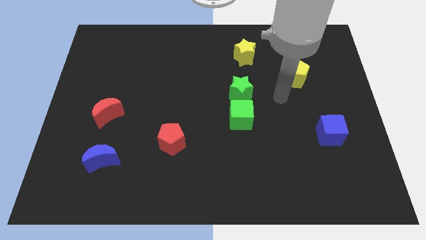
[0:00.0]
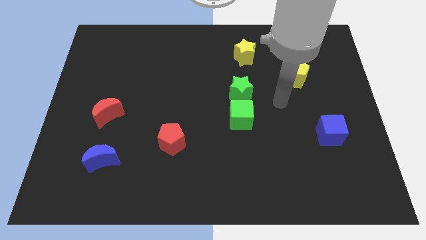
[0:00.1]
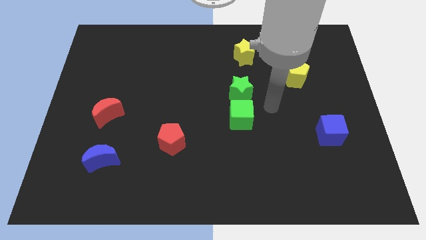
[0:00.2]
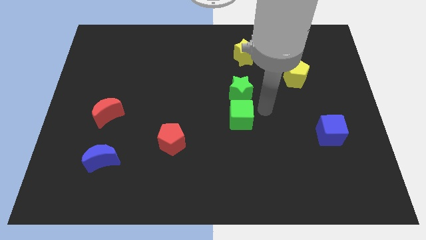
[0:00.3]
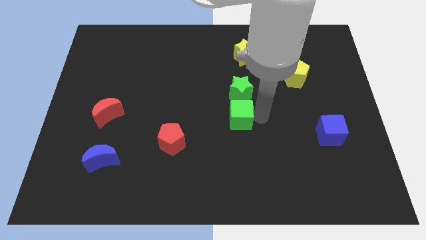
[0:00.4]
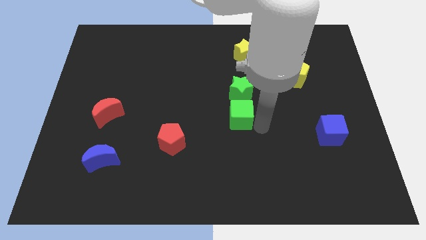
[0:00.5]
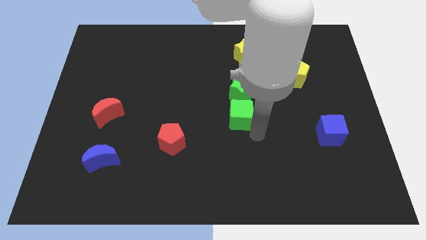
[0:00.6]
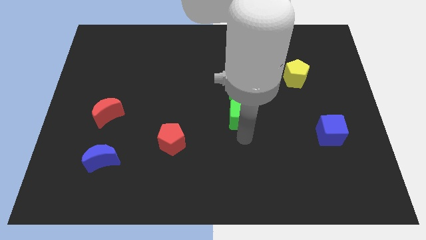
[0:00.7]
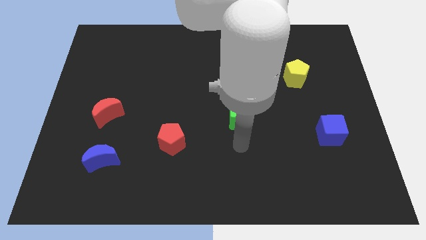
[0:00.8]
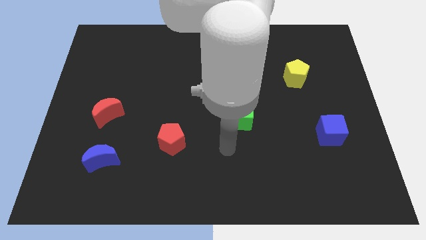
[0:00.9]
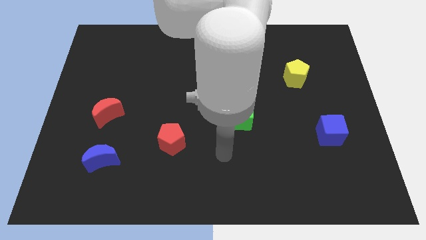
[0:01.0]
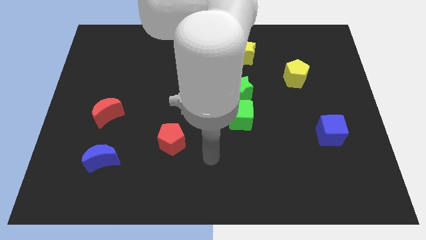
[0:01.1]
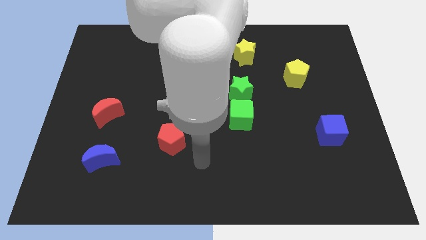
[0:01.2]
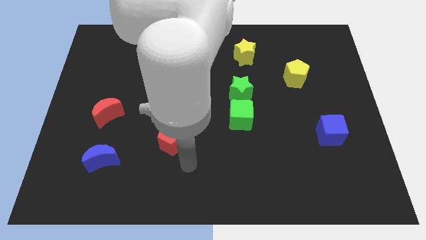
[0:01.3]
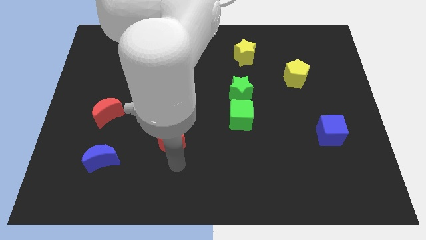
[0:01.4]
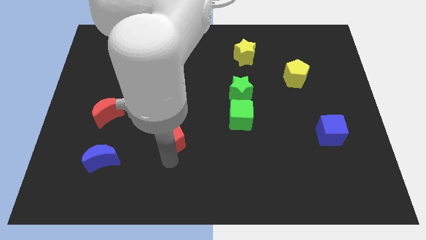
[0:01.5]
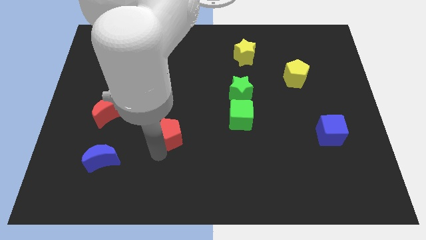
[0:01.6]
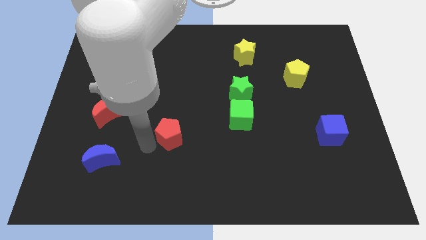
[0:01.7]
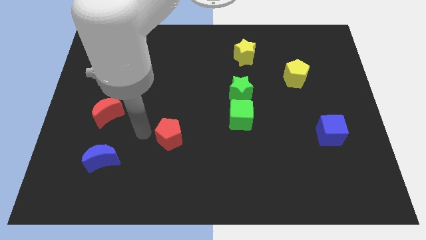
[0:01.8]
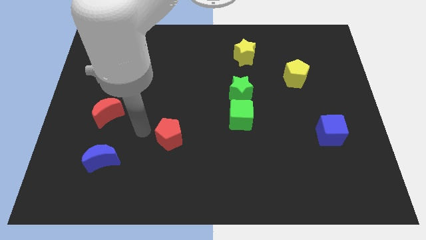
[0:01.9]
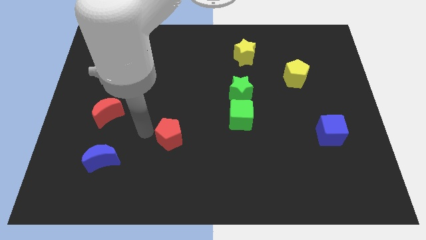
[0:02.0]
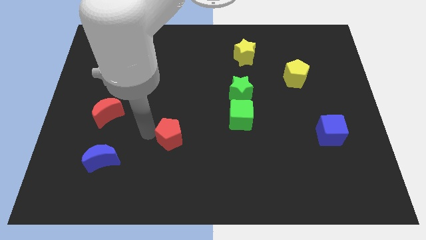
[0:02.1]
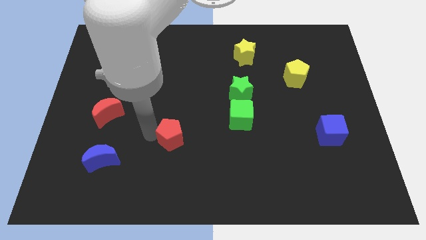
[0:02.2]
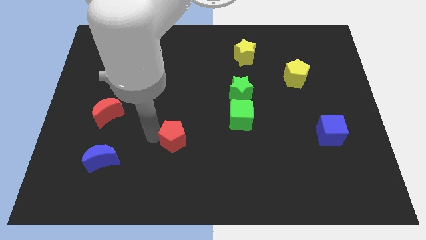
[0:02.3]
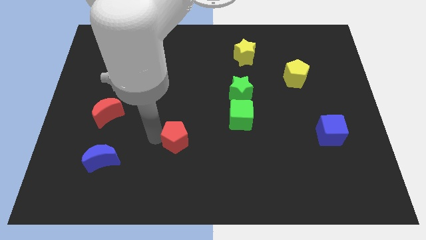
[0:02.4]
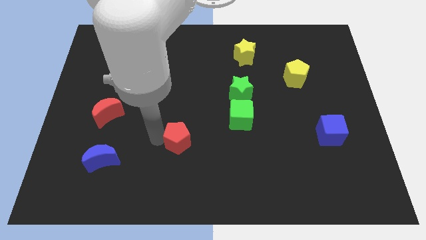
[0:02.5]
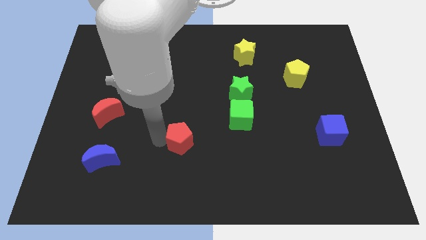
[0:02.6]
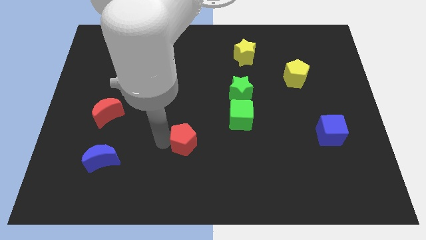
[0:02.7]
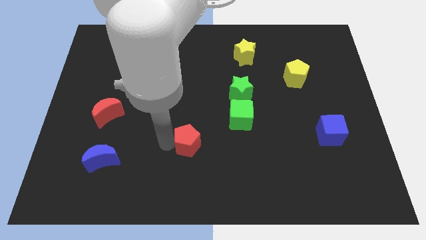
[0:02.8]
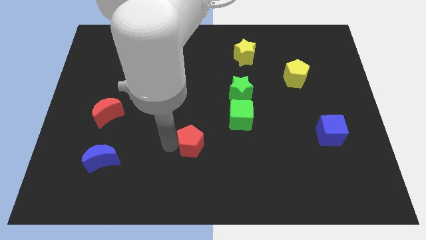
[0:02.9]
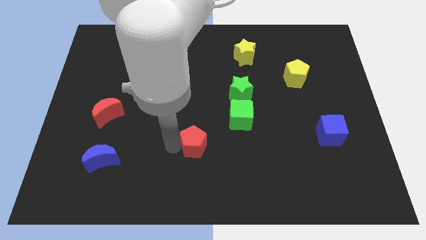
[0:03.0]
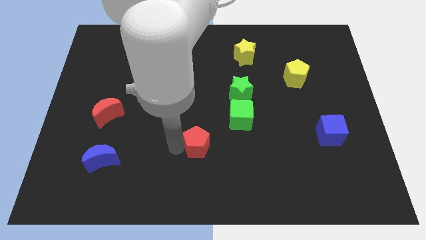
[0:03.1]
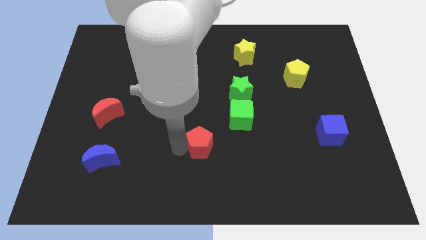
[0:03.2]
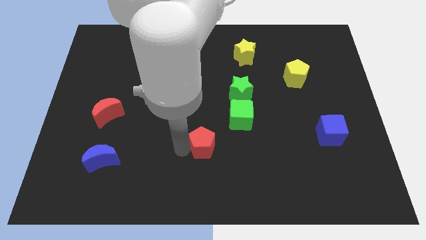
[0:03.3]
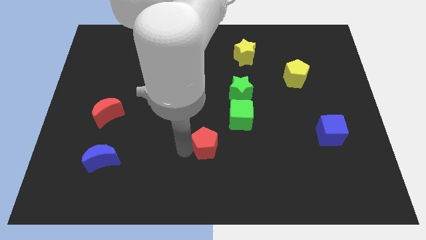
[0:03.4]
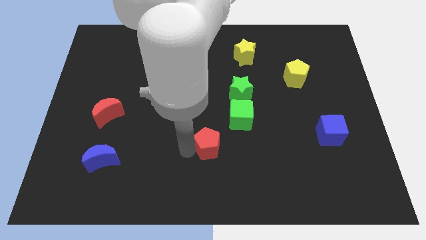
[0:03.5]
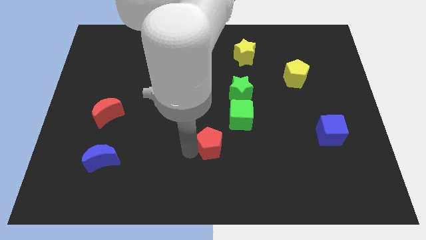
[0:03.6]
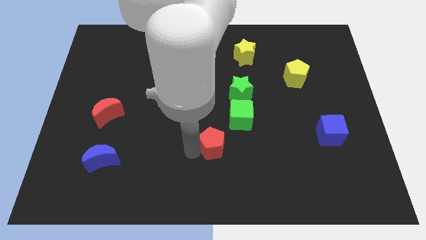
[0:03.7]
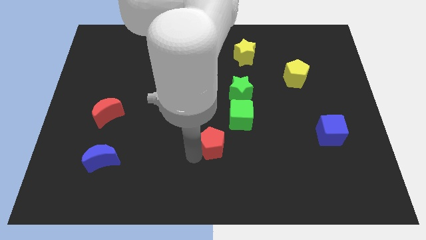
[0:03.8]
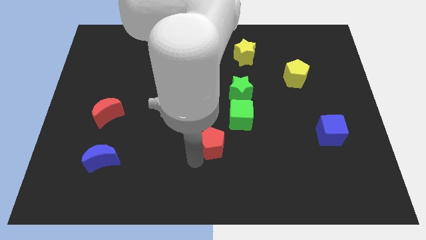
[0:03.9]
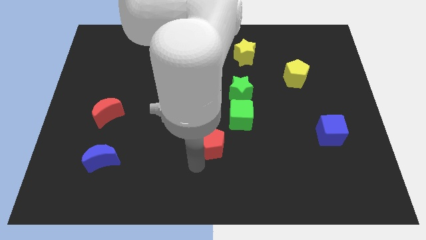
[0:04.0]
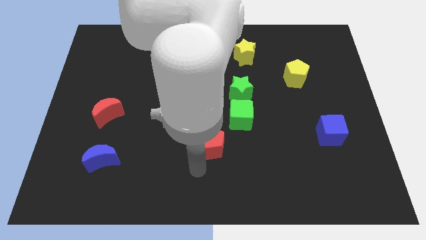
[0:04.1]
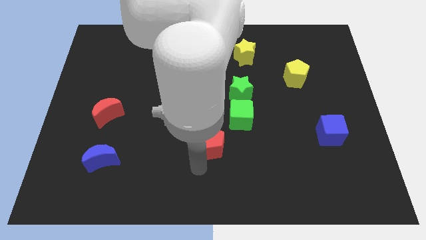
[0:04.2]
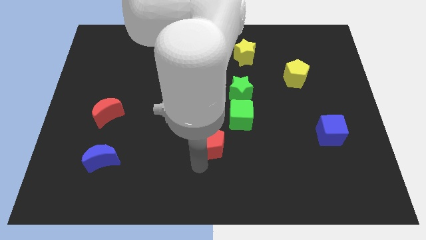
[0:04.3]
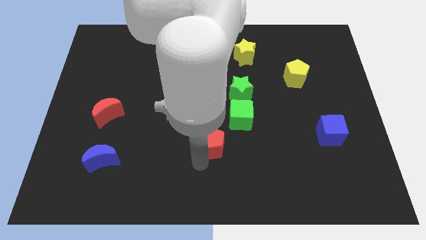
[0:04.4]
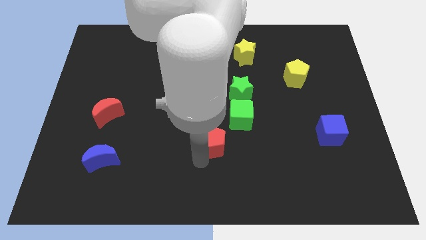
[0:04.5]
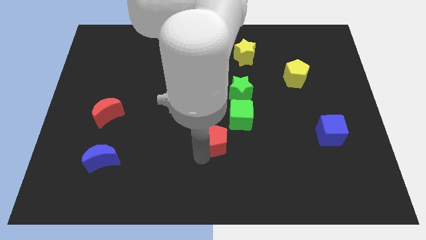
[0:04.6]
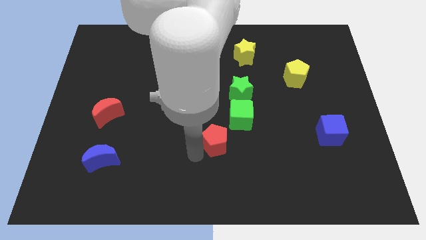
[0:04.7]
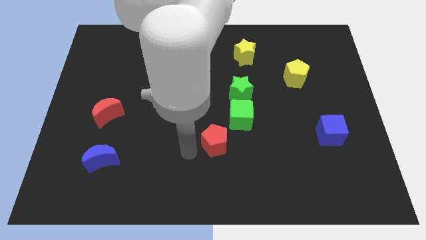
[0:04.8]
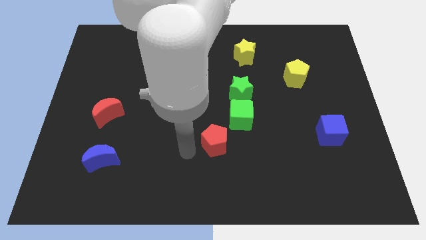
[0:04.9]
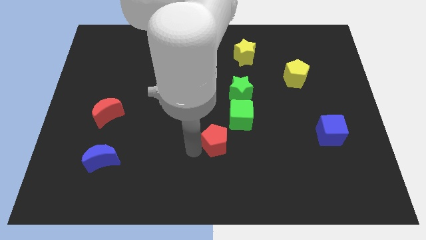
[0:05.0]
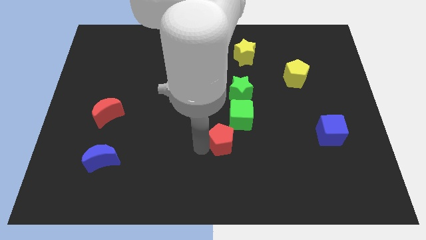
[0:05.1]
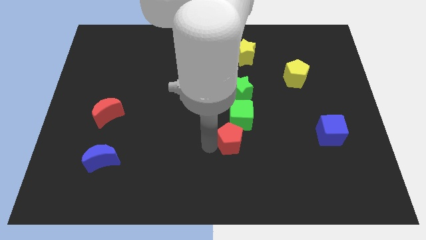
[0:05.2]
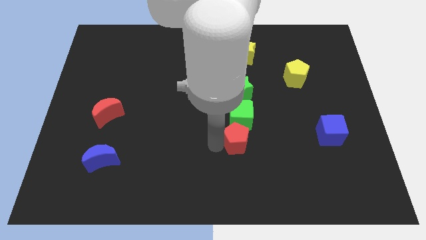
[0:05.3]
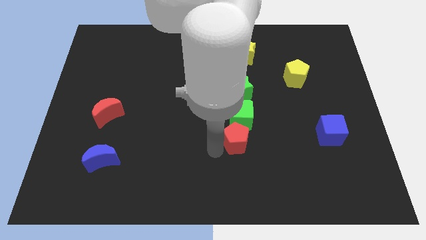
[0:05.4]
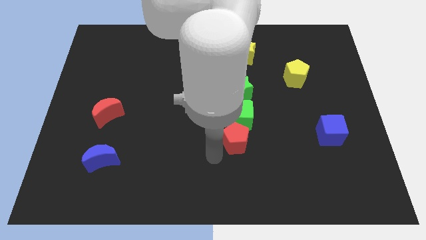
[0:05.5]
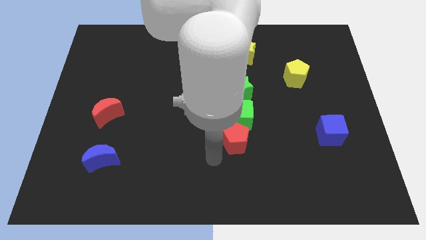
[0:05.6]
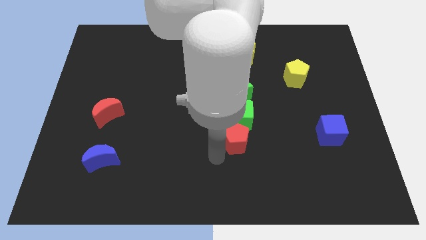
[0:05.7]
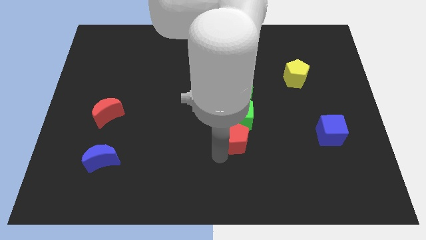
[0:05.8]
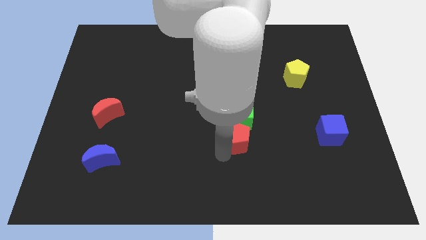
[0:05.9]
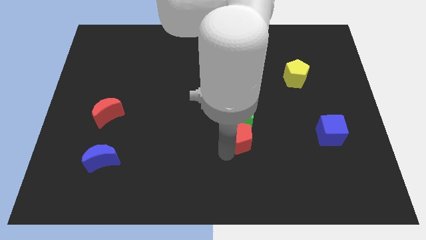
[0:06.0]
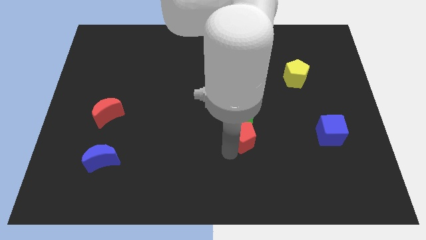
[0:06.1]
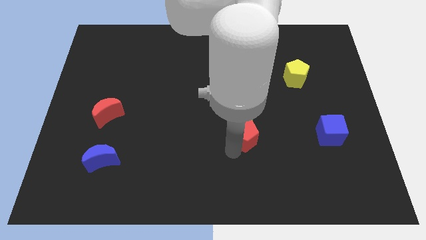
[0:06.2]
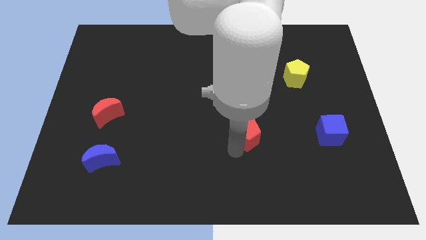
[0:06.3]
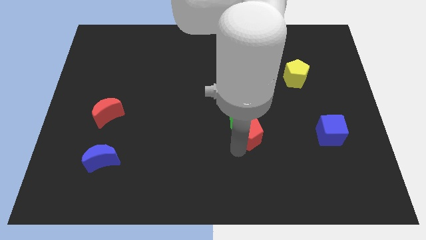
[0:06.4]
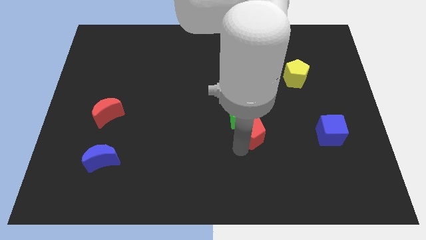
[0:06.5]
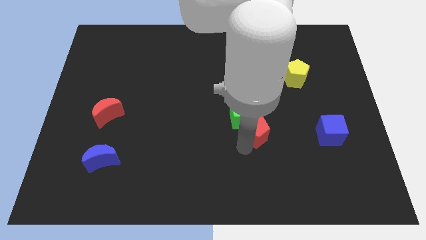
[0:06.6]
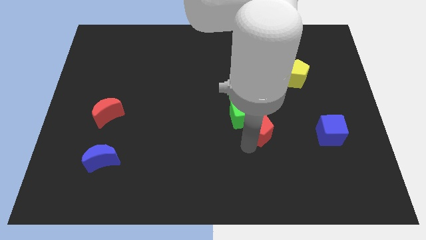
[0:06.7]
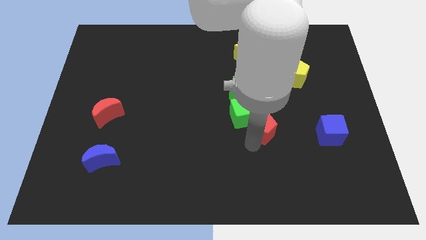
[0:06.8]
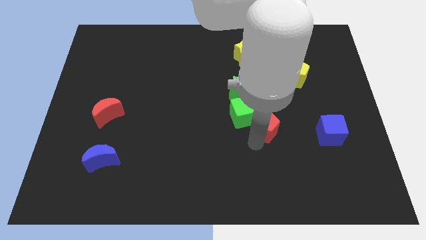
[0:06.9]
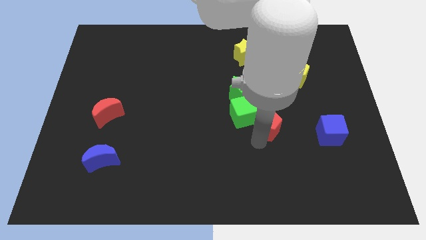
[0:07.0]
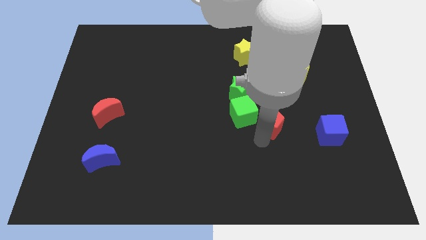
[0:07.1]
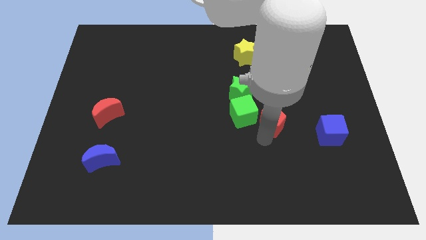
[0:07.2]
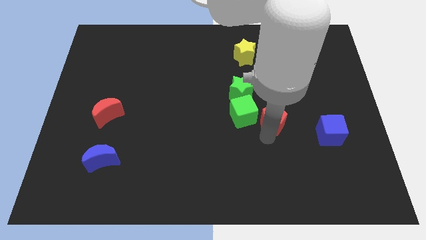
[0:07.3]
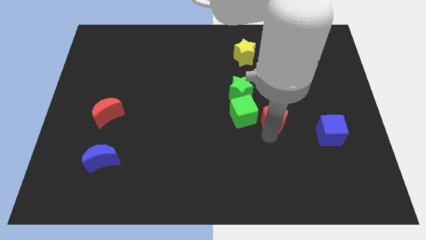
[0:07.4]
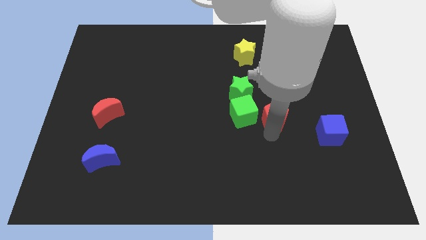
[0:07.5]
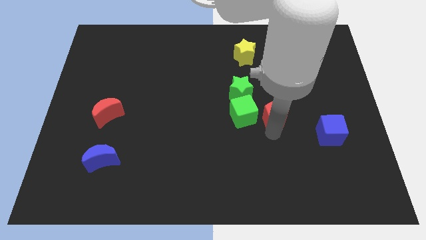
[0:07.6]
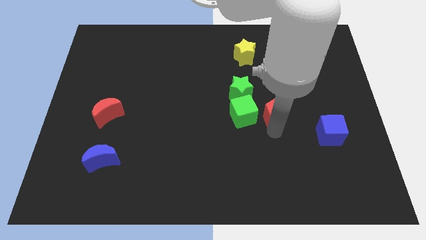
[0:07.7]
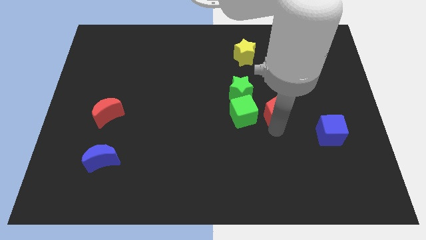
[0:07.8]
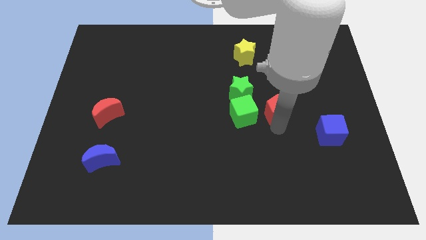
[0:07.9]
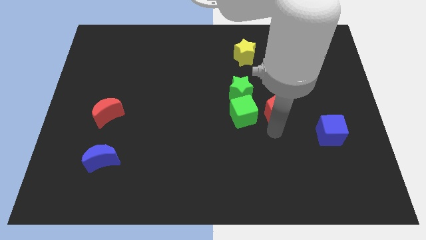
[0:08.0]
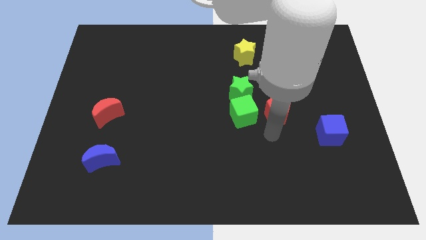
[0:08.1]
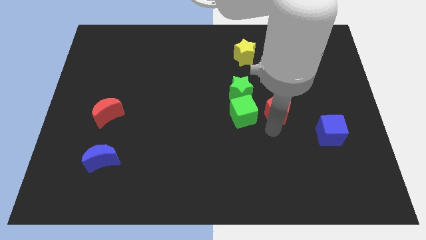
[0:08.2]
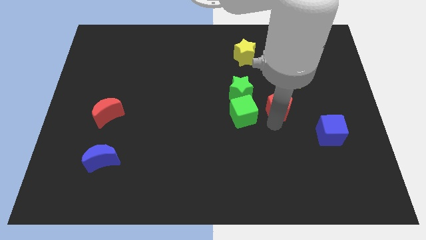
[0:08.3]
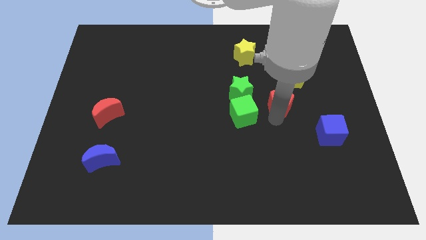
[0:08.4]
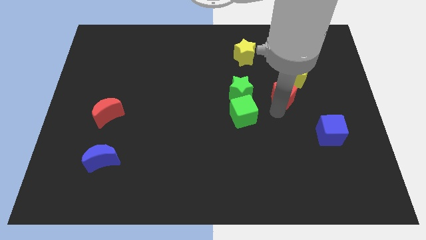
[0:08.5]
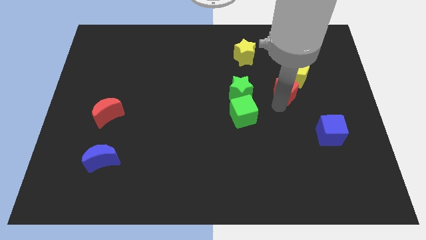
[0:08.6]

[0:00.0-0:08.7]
slide the red pentagon towards the yellow pentagon
